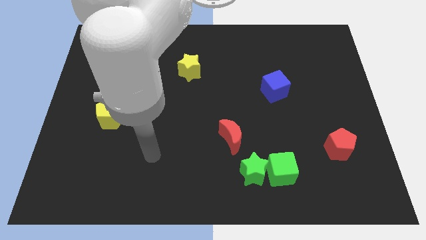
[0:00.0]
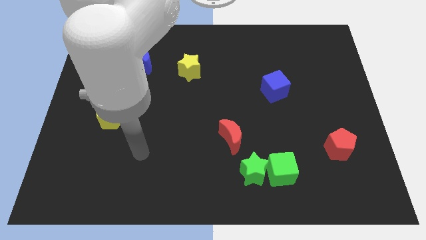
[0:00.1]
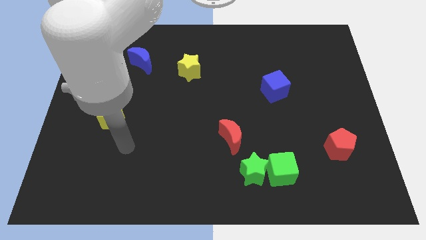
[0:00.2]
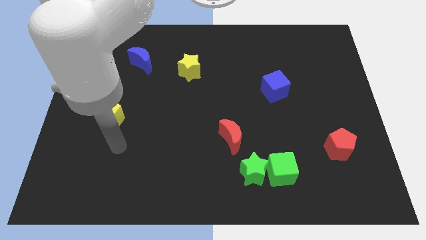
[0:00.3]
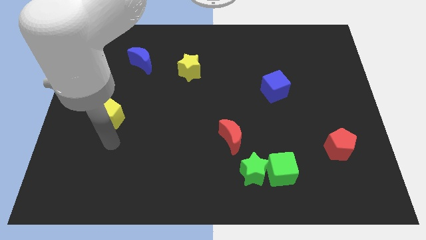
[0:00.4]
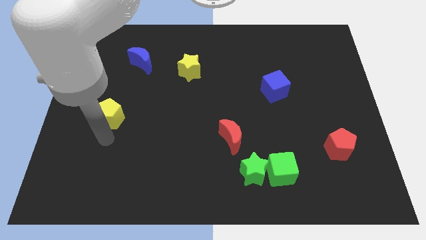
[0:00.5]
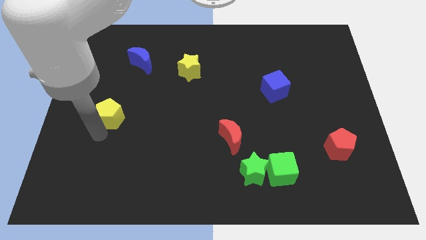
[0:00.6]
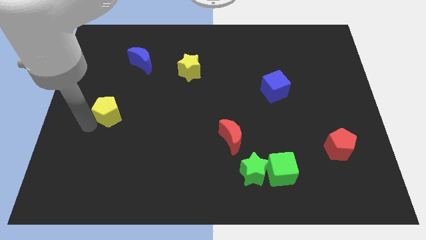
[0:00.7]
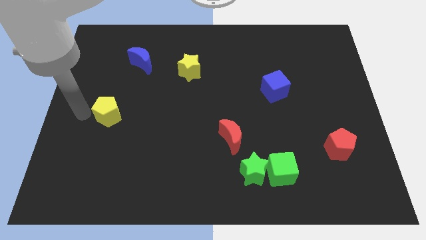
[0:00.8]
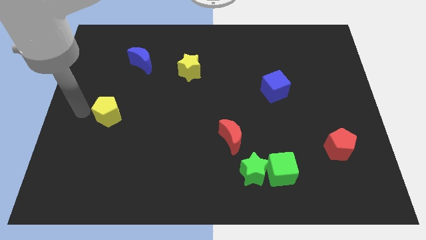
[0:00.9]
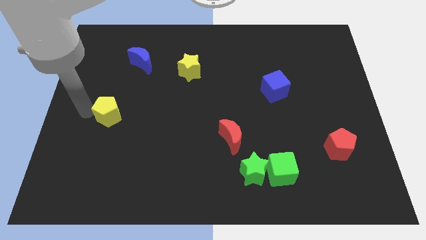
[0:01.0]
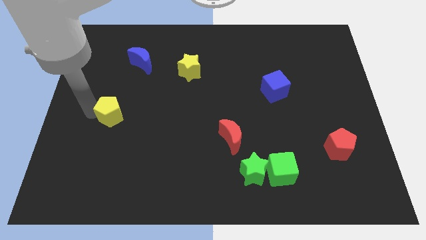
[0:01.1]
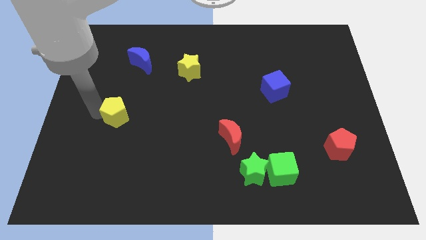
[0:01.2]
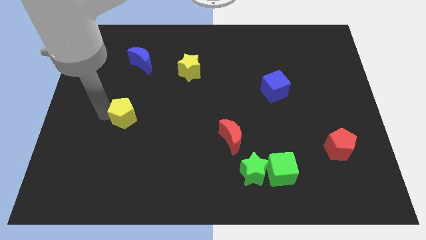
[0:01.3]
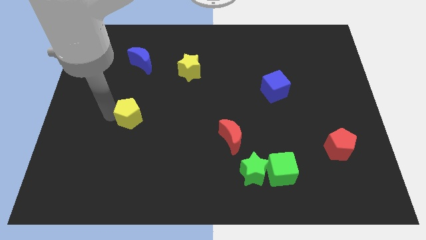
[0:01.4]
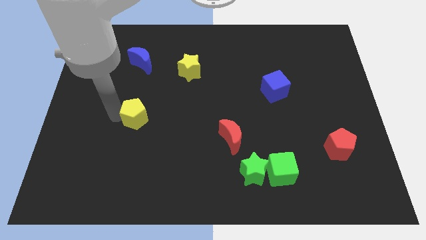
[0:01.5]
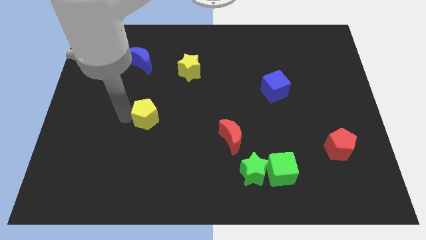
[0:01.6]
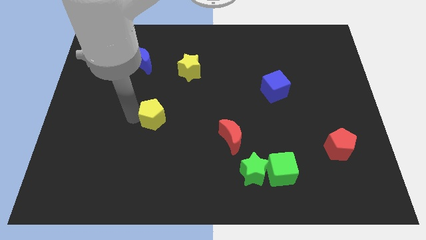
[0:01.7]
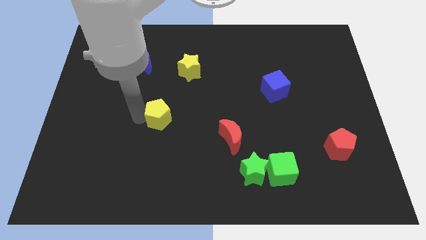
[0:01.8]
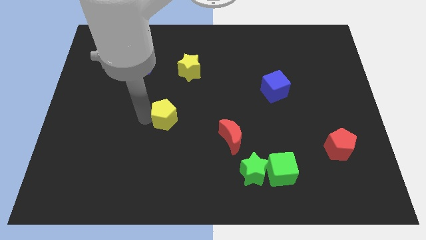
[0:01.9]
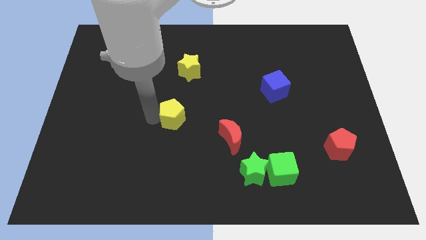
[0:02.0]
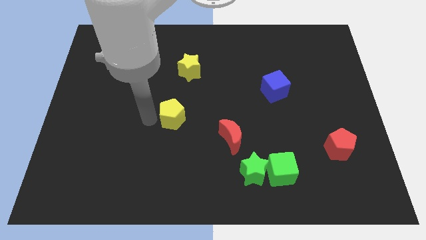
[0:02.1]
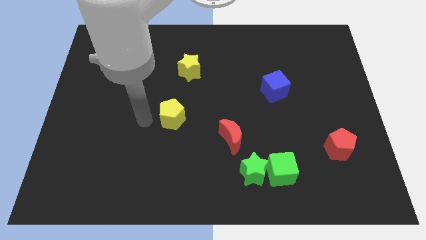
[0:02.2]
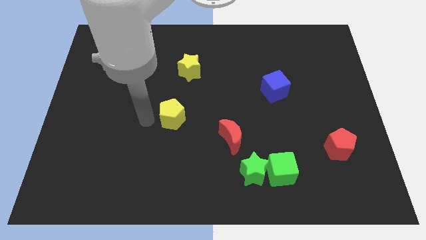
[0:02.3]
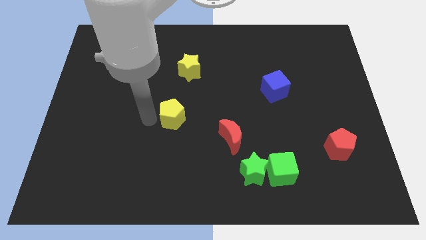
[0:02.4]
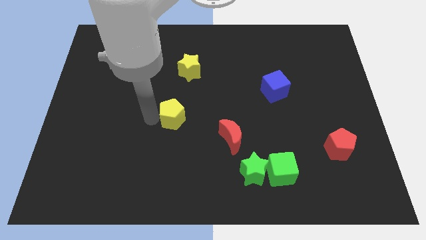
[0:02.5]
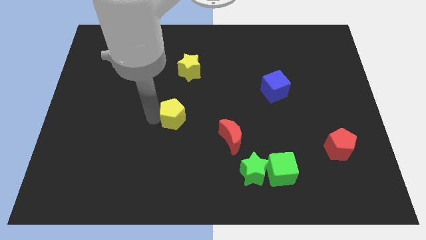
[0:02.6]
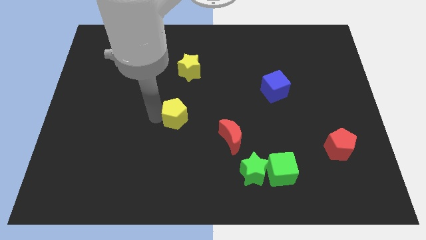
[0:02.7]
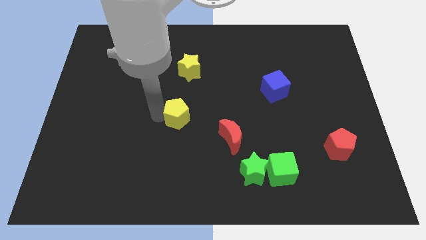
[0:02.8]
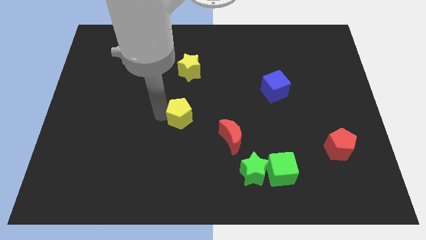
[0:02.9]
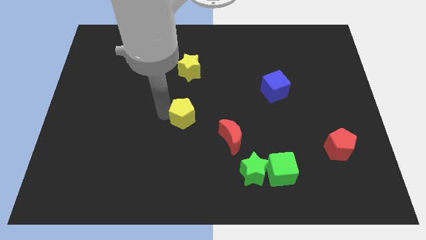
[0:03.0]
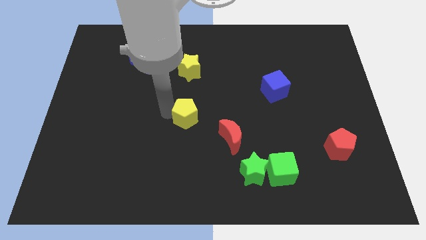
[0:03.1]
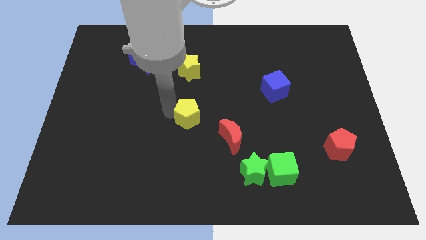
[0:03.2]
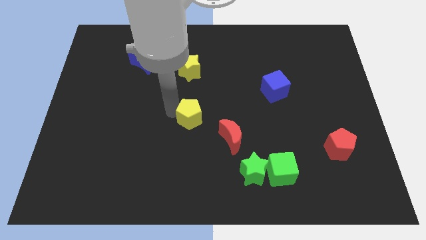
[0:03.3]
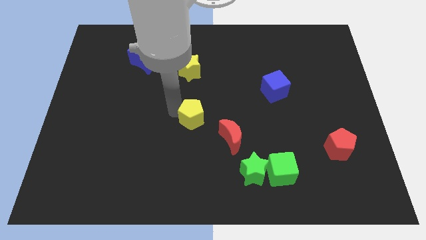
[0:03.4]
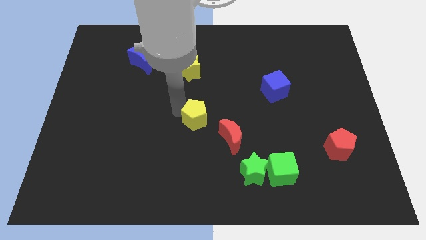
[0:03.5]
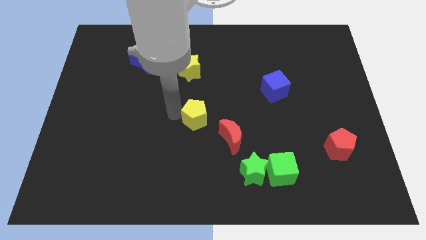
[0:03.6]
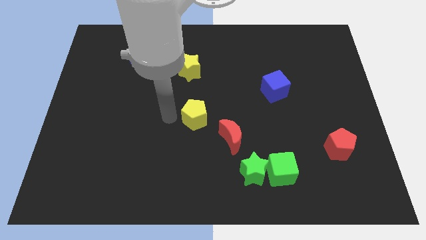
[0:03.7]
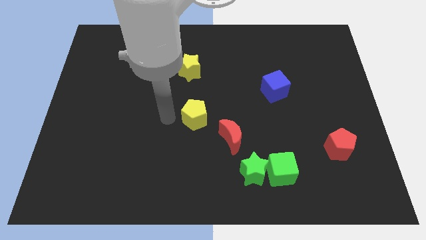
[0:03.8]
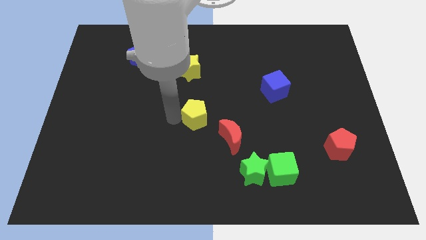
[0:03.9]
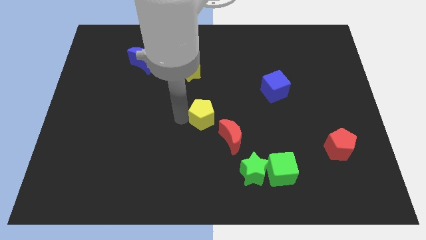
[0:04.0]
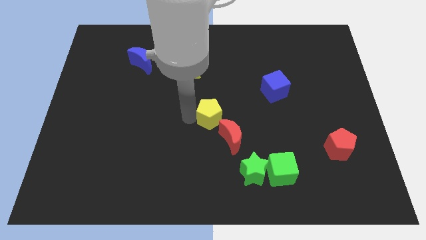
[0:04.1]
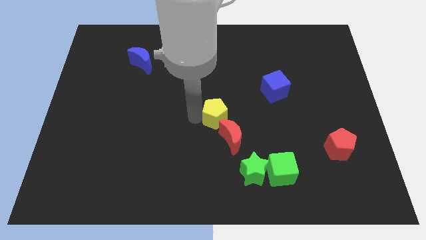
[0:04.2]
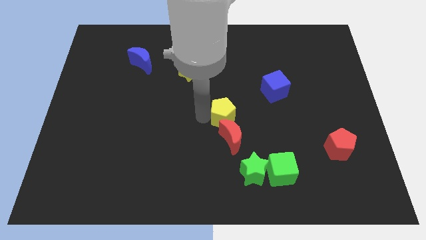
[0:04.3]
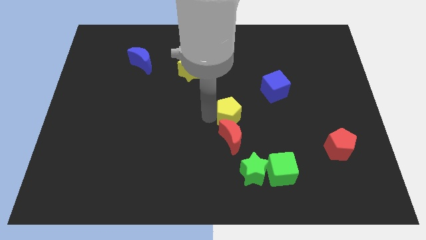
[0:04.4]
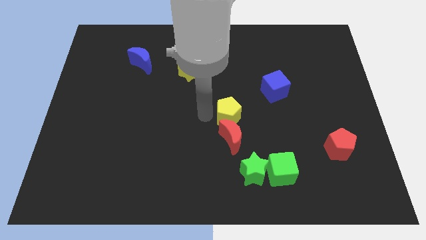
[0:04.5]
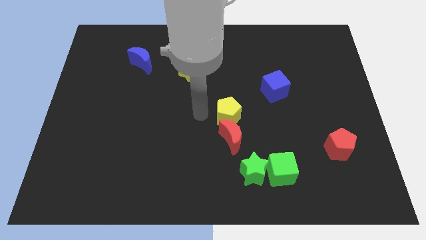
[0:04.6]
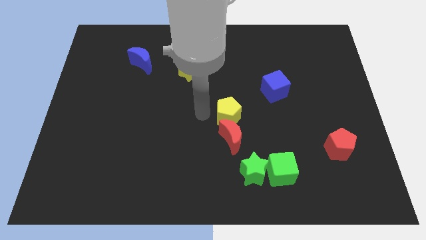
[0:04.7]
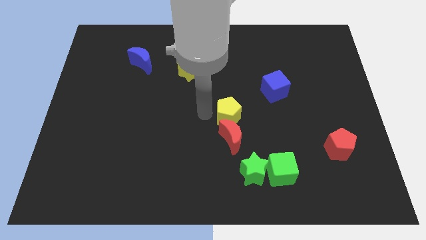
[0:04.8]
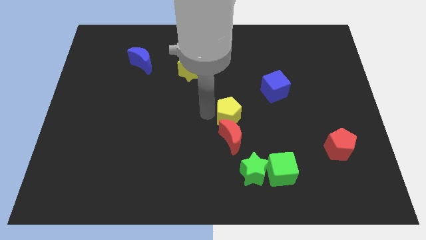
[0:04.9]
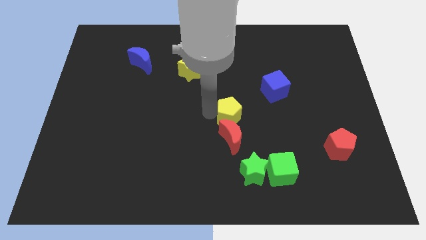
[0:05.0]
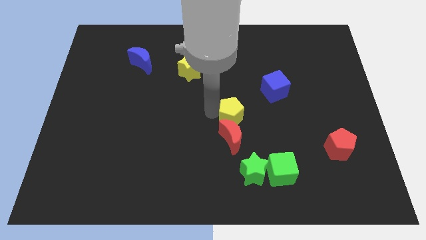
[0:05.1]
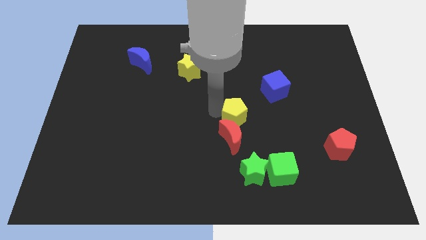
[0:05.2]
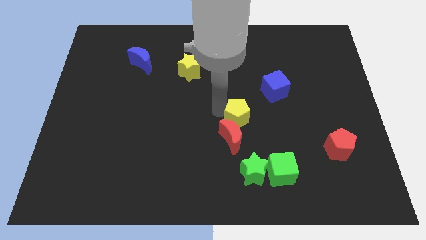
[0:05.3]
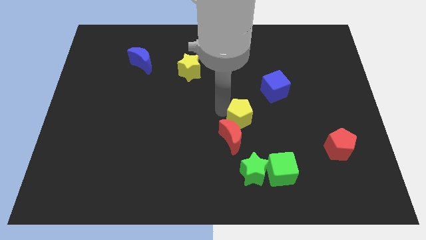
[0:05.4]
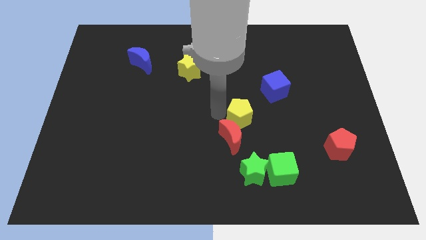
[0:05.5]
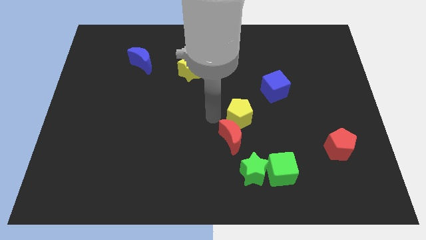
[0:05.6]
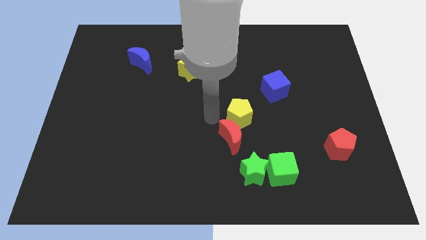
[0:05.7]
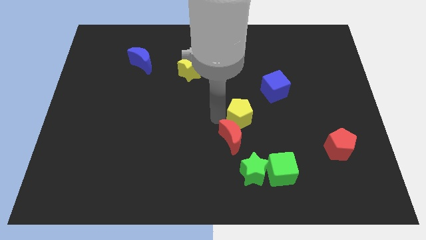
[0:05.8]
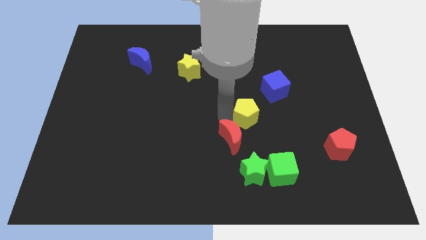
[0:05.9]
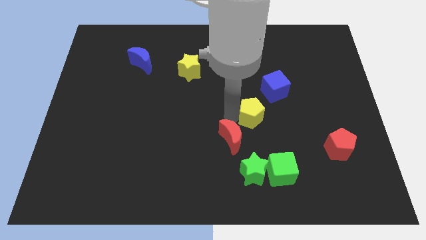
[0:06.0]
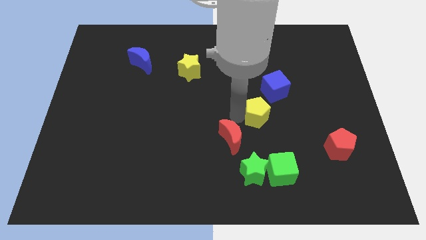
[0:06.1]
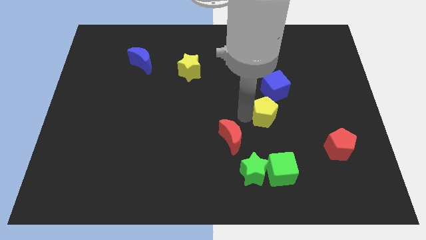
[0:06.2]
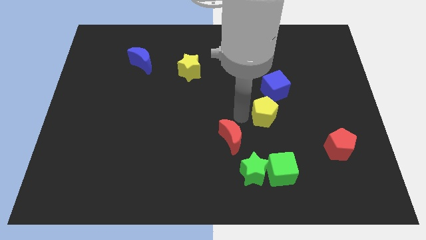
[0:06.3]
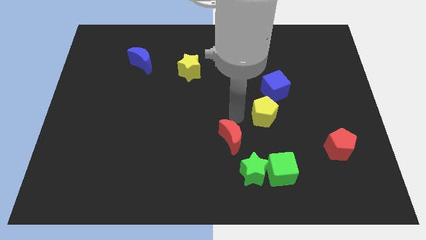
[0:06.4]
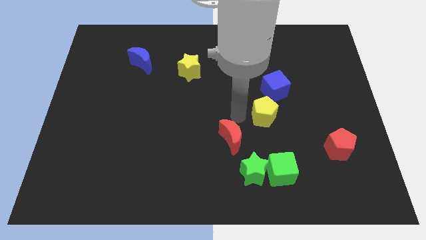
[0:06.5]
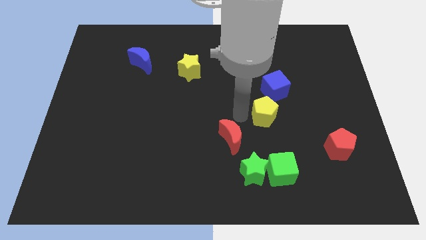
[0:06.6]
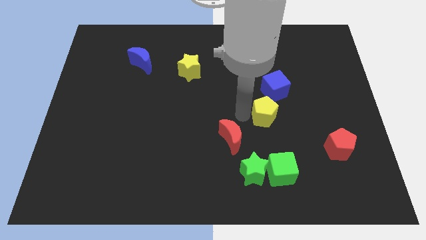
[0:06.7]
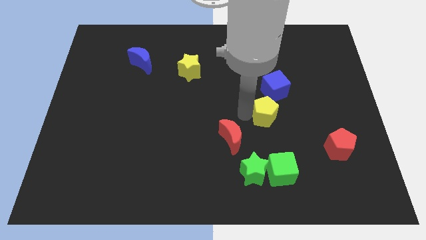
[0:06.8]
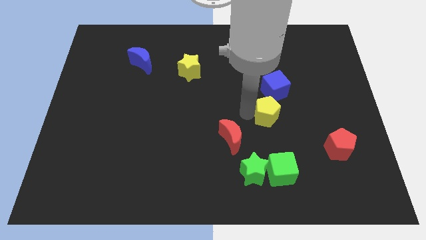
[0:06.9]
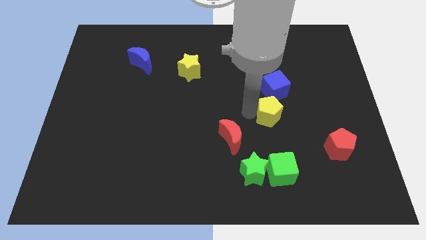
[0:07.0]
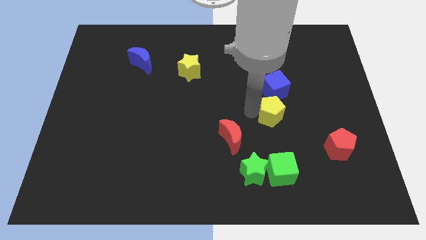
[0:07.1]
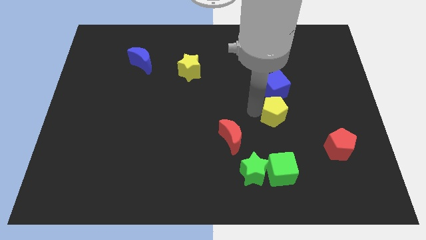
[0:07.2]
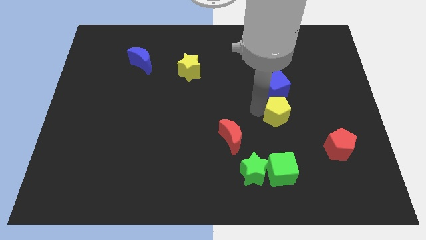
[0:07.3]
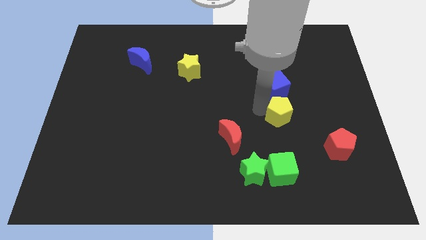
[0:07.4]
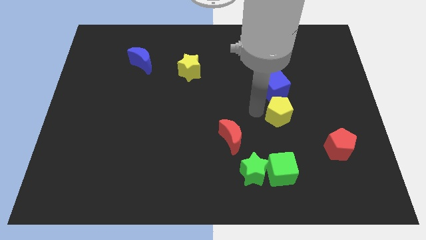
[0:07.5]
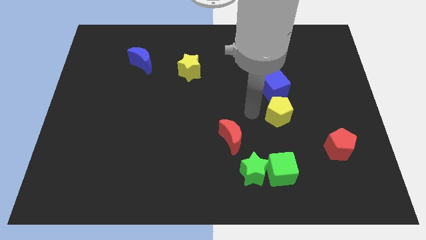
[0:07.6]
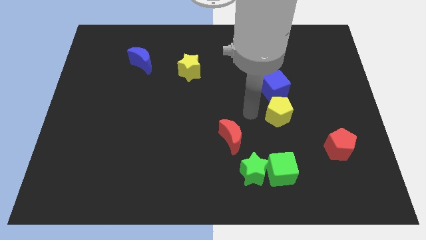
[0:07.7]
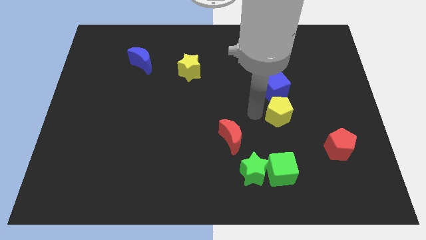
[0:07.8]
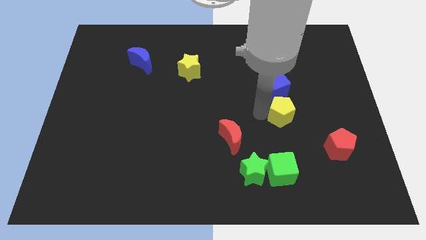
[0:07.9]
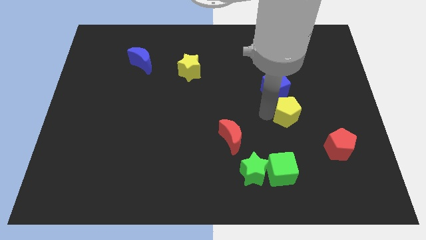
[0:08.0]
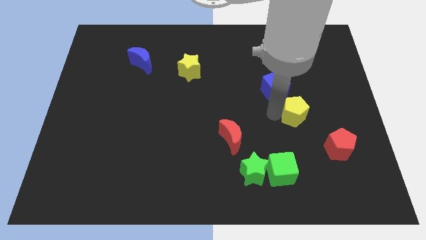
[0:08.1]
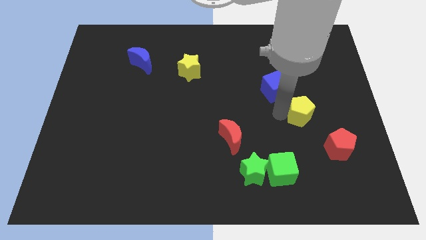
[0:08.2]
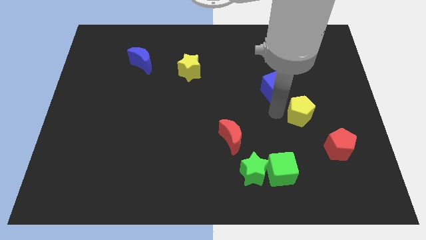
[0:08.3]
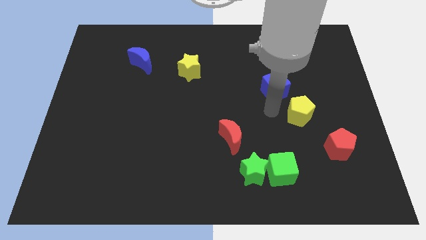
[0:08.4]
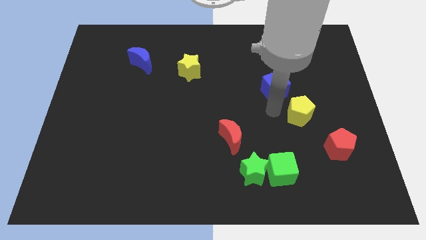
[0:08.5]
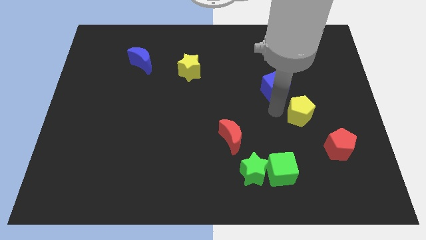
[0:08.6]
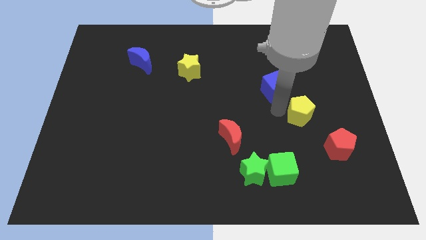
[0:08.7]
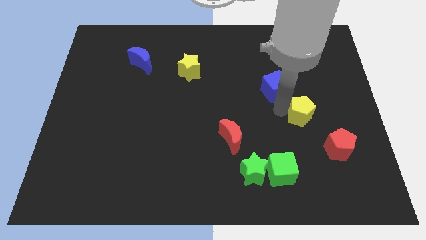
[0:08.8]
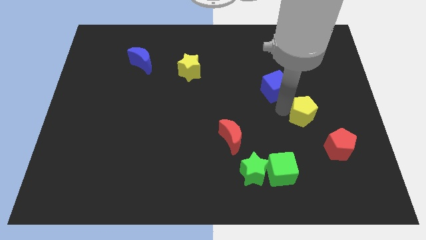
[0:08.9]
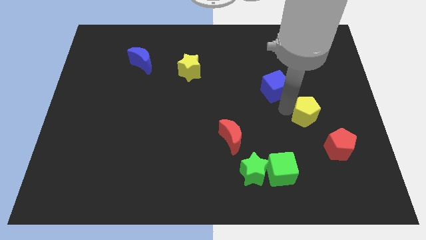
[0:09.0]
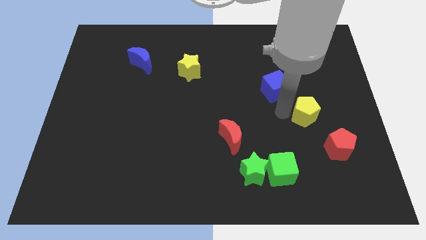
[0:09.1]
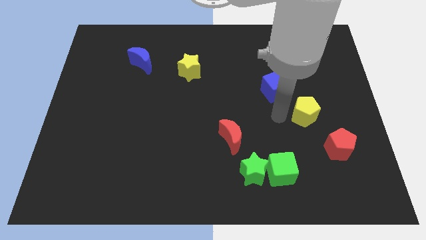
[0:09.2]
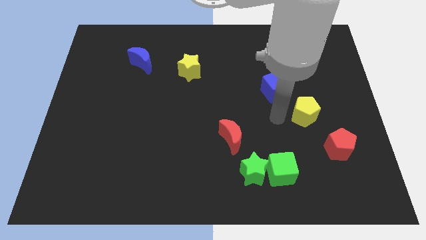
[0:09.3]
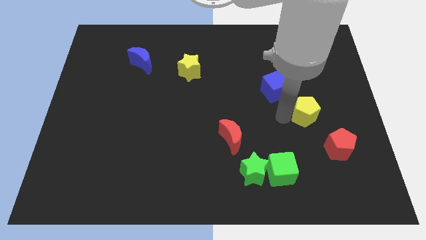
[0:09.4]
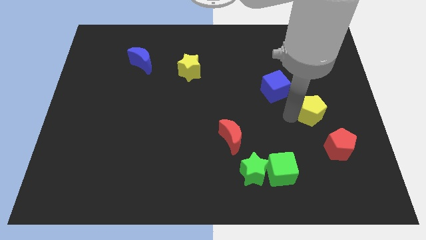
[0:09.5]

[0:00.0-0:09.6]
put the yellow pentagon to the top of the red pentagon
